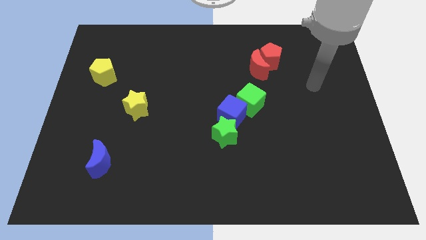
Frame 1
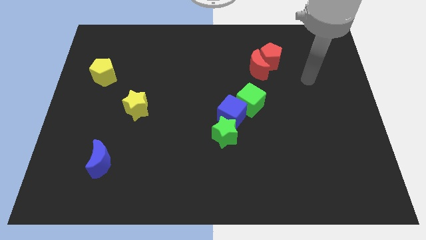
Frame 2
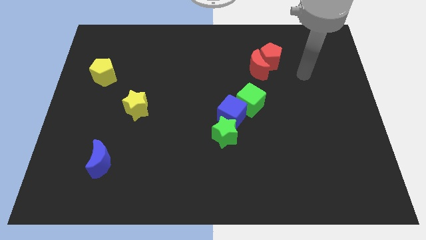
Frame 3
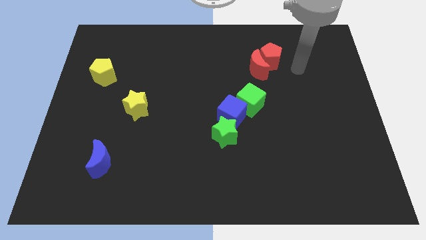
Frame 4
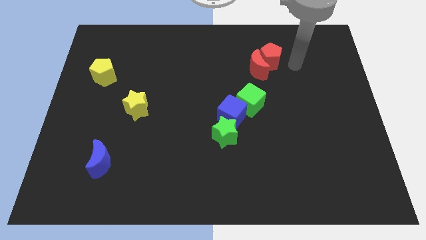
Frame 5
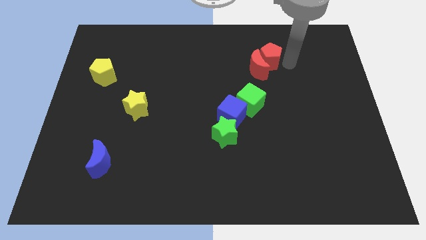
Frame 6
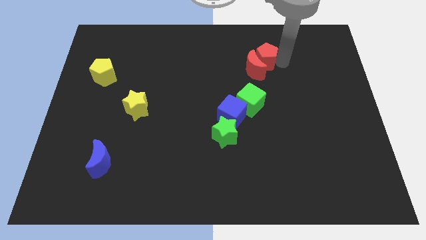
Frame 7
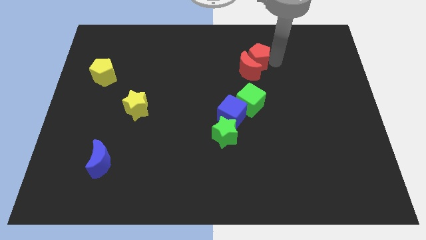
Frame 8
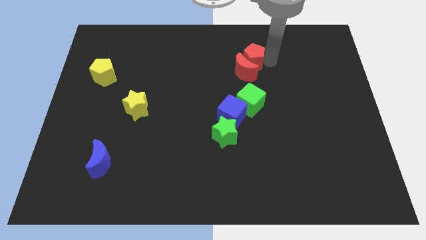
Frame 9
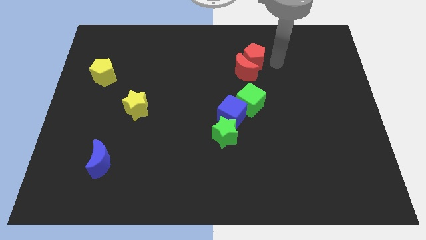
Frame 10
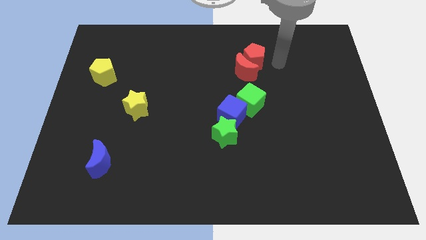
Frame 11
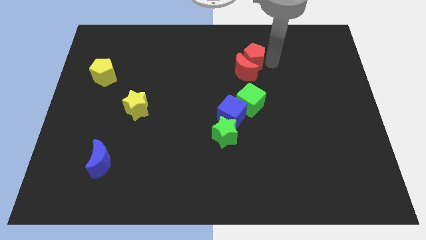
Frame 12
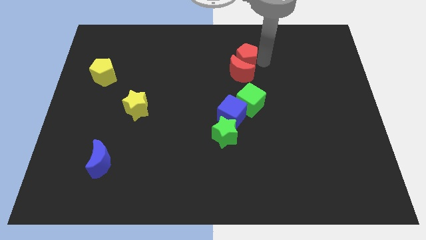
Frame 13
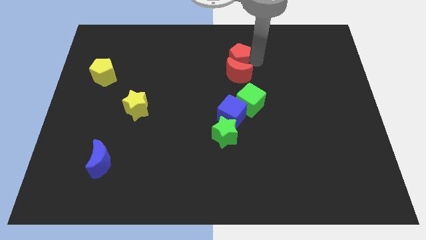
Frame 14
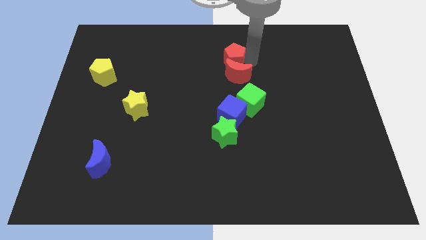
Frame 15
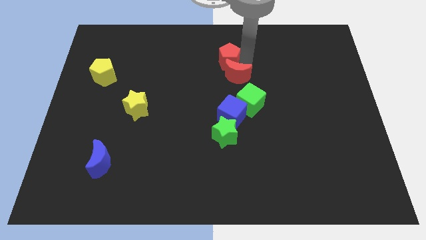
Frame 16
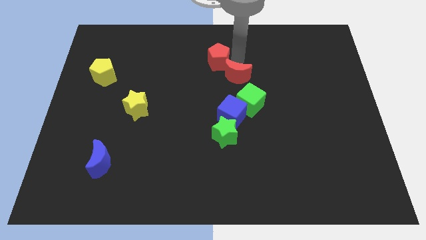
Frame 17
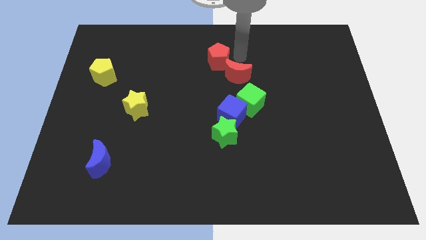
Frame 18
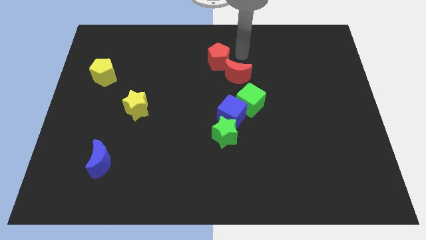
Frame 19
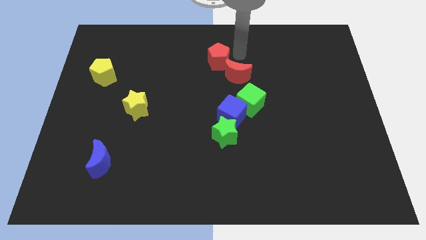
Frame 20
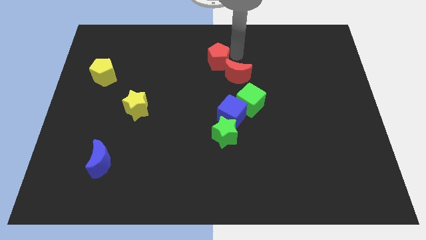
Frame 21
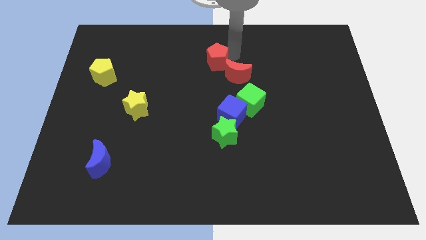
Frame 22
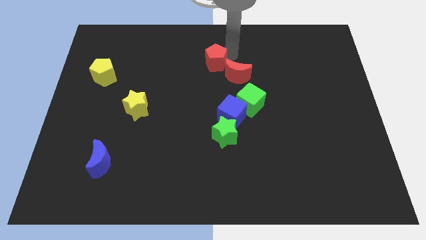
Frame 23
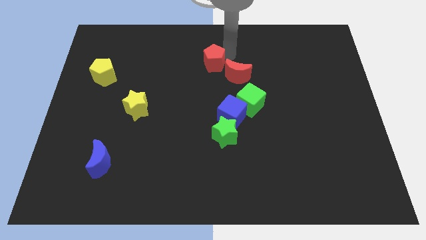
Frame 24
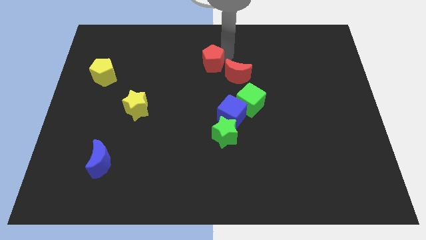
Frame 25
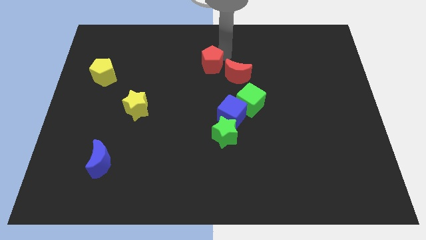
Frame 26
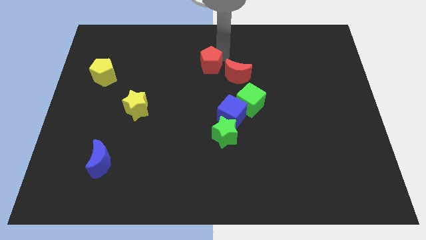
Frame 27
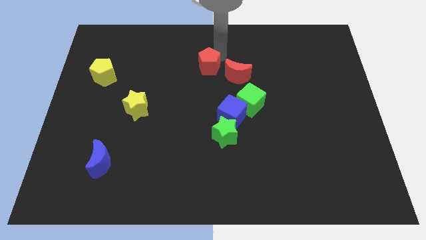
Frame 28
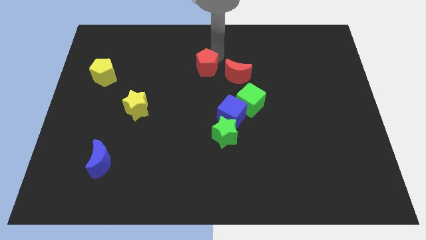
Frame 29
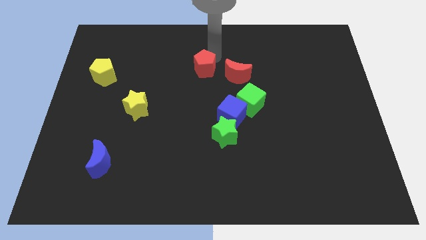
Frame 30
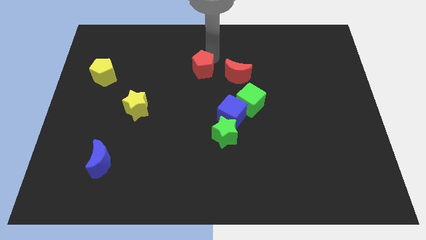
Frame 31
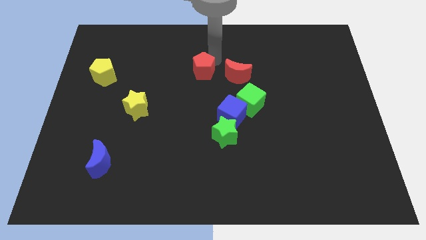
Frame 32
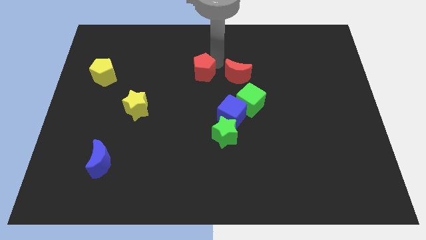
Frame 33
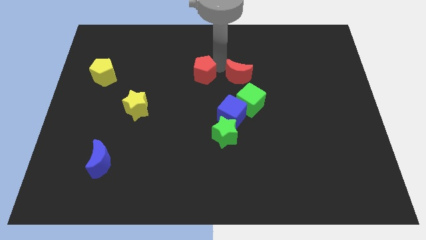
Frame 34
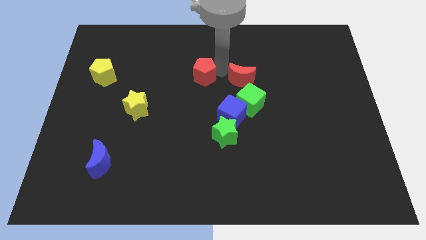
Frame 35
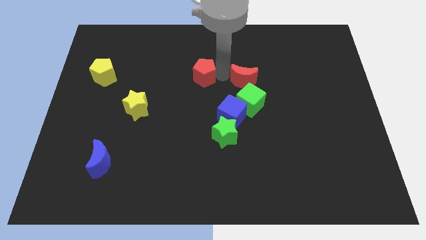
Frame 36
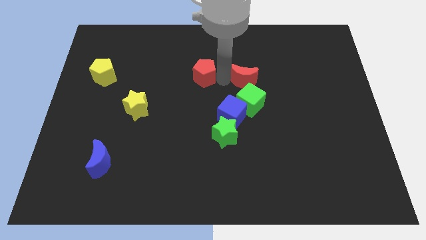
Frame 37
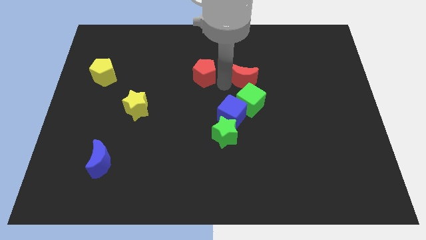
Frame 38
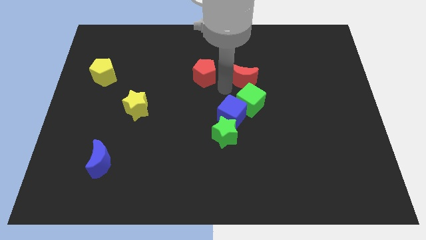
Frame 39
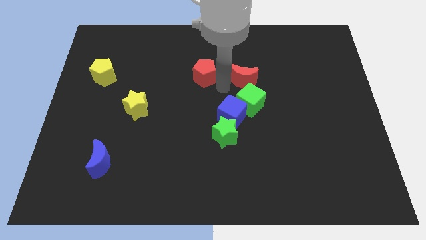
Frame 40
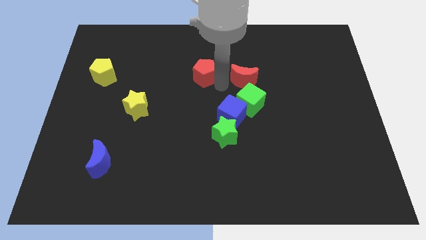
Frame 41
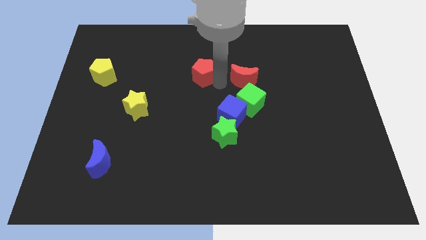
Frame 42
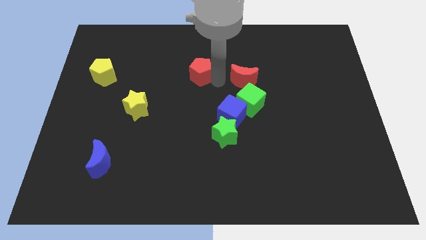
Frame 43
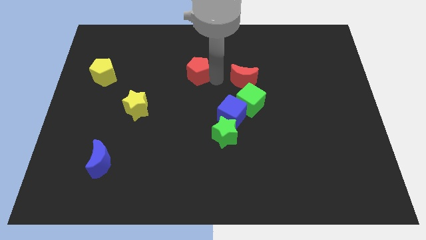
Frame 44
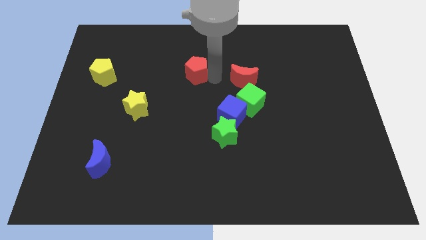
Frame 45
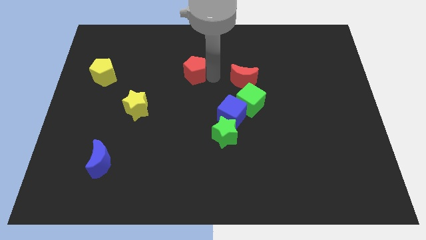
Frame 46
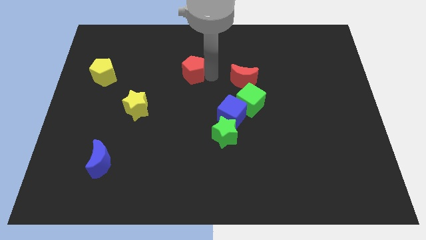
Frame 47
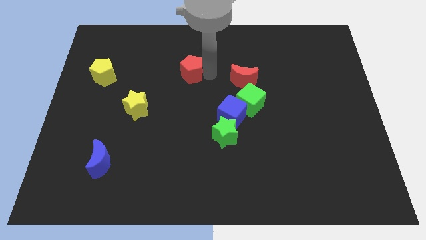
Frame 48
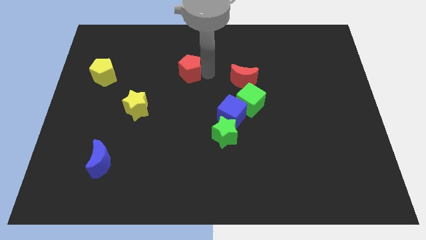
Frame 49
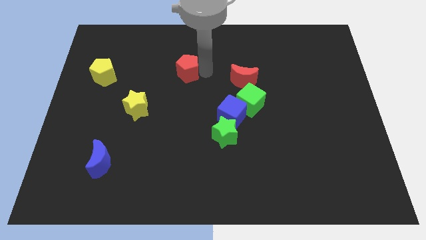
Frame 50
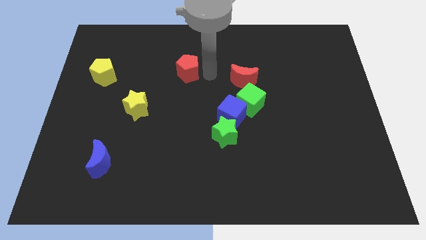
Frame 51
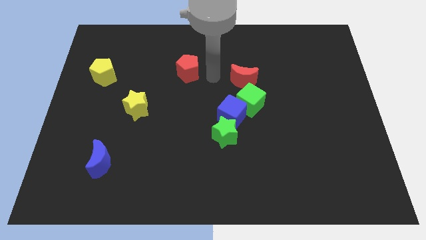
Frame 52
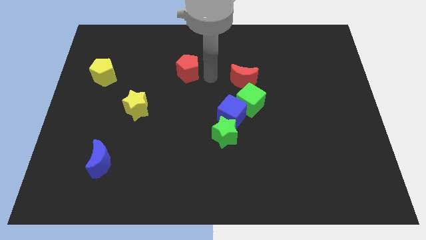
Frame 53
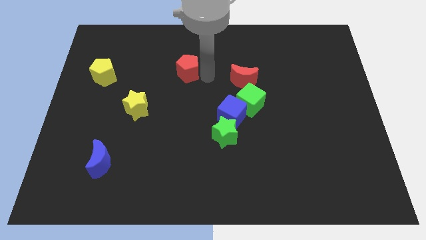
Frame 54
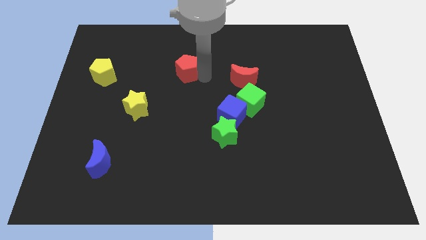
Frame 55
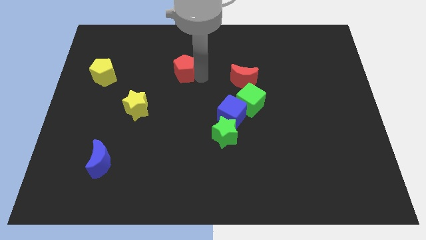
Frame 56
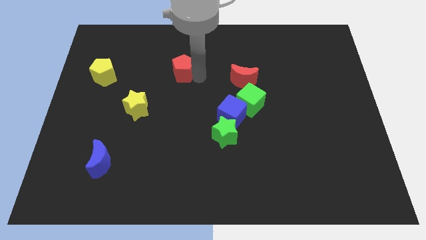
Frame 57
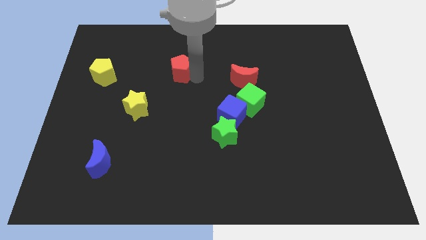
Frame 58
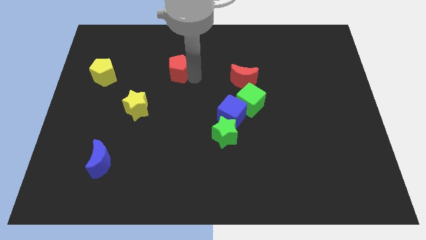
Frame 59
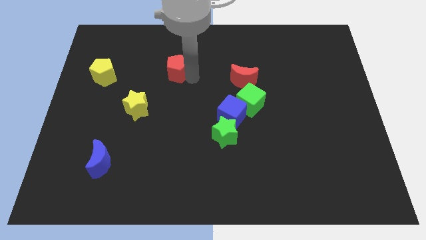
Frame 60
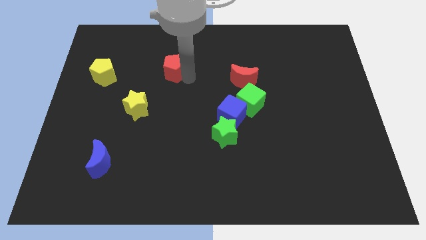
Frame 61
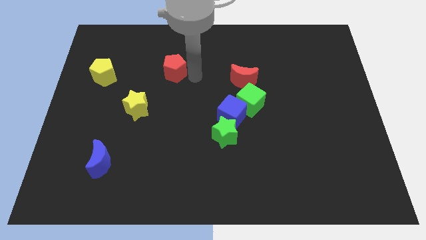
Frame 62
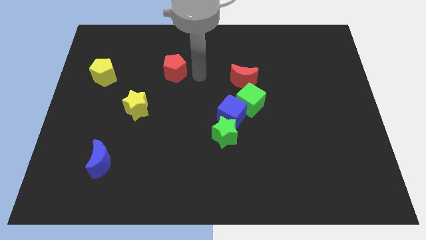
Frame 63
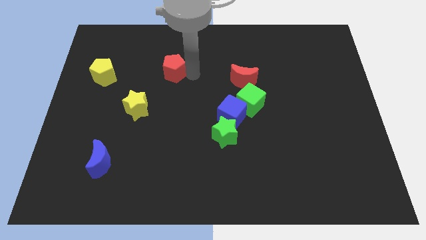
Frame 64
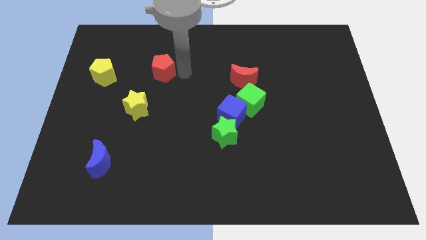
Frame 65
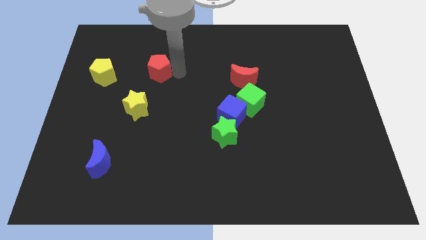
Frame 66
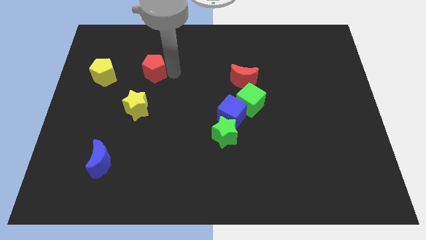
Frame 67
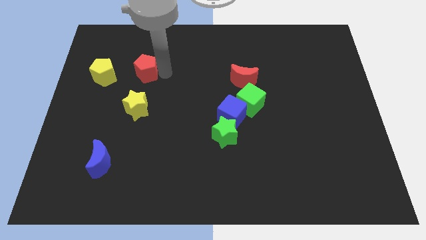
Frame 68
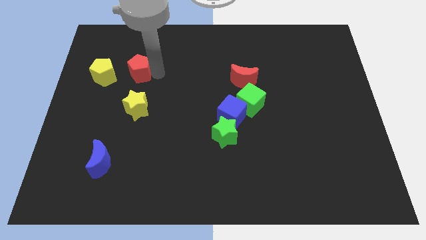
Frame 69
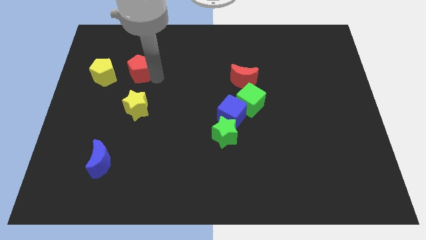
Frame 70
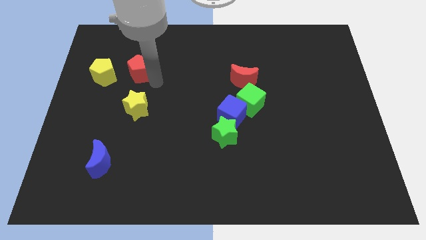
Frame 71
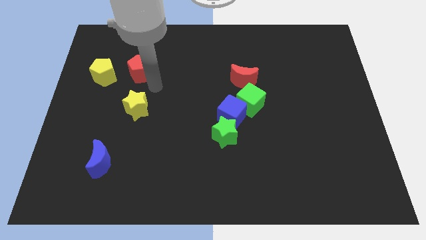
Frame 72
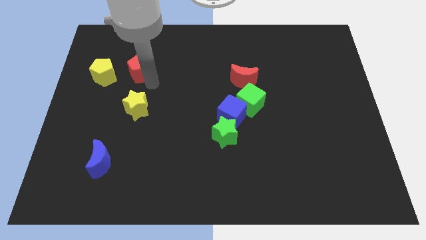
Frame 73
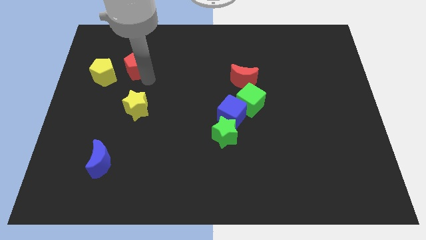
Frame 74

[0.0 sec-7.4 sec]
move the red pentagon to the top right of the yellow pentagon
